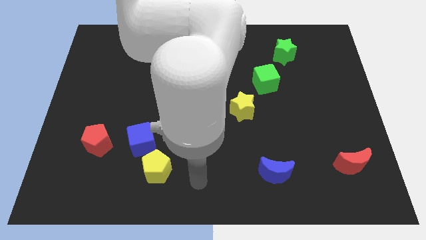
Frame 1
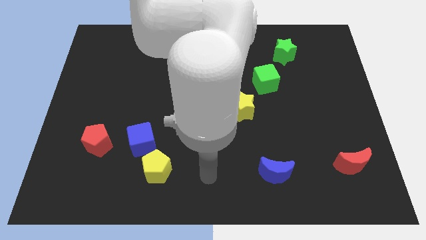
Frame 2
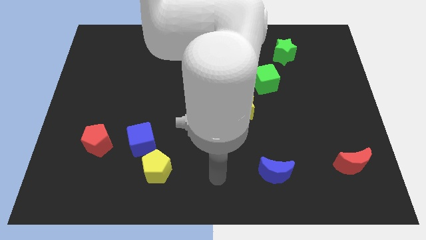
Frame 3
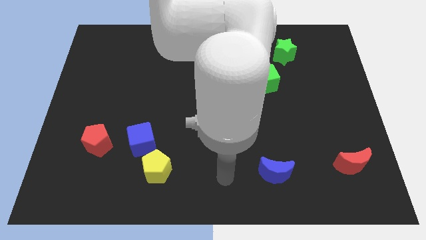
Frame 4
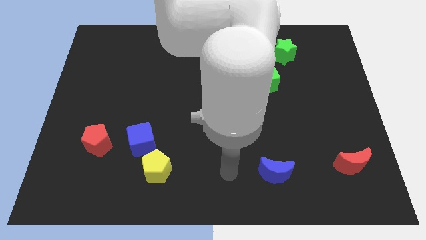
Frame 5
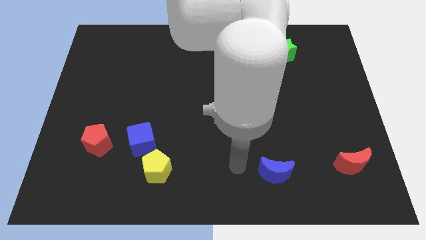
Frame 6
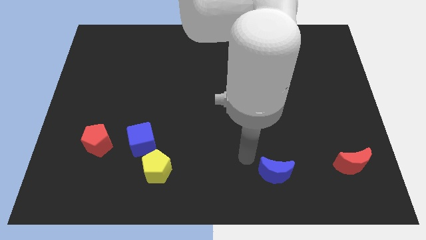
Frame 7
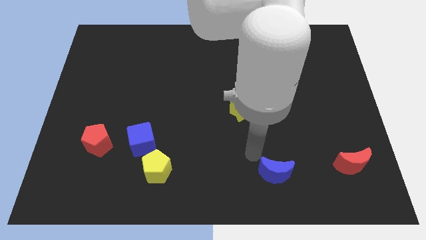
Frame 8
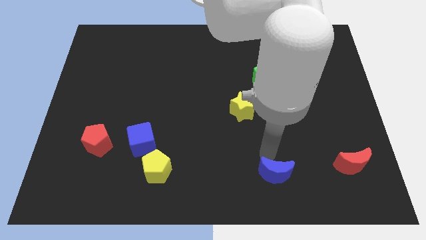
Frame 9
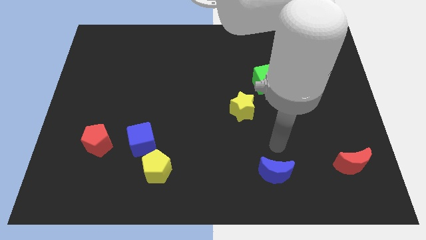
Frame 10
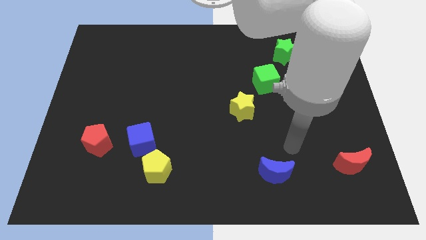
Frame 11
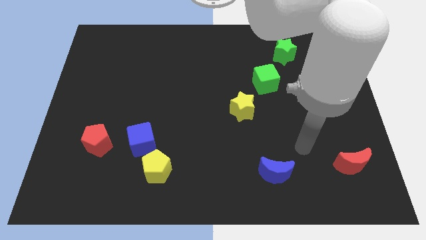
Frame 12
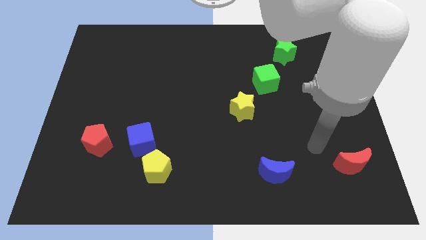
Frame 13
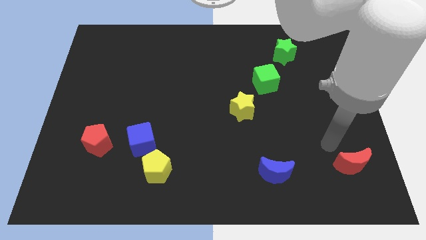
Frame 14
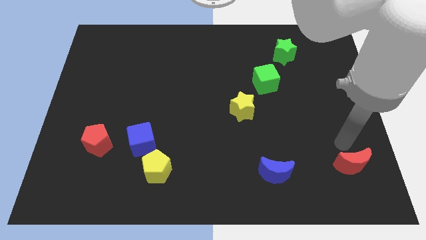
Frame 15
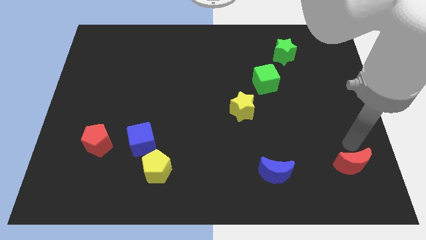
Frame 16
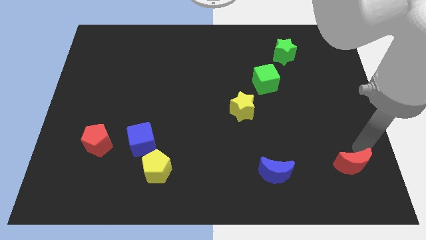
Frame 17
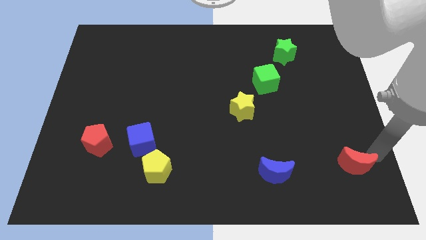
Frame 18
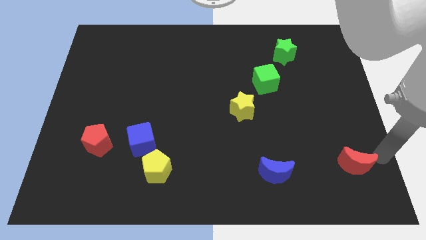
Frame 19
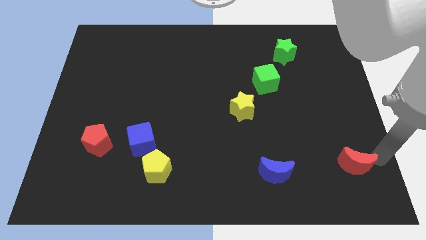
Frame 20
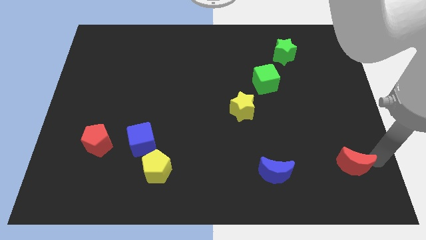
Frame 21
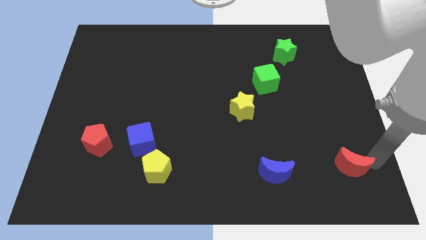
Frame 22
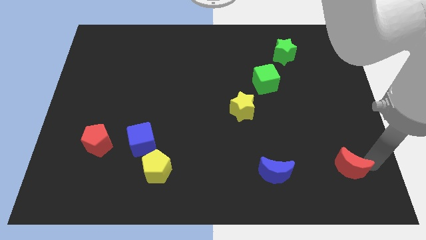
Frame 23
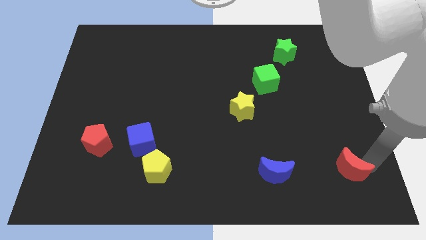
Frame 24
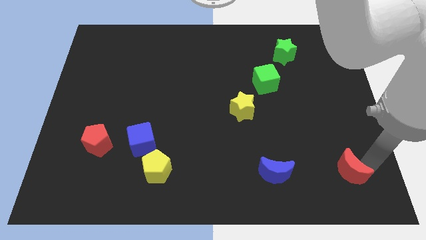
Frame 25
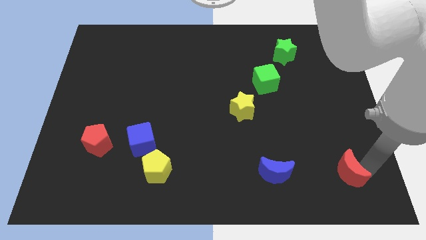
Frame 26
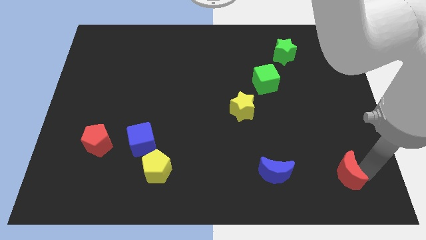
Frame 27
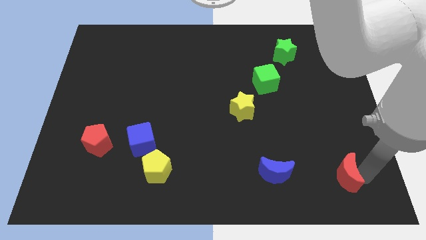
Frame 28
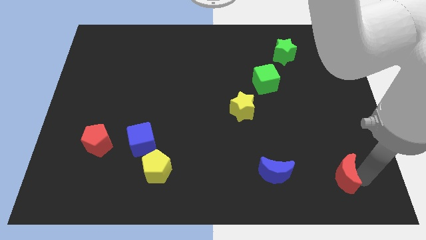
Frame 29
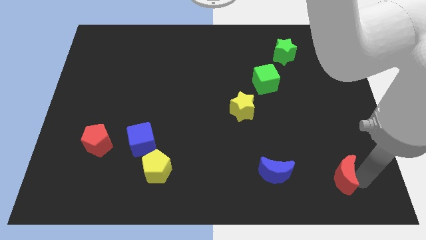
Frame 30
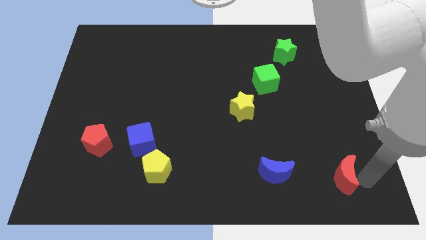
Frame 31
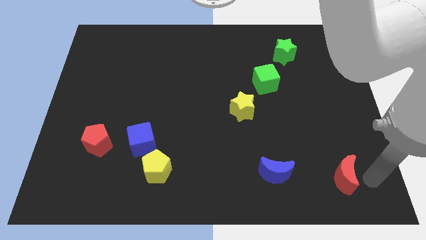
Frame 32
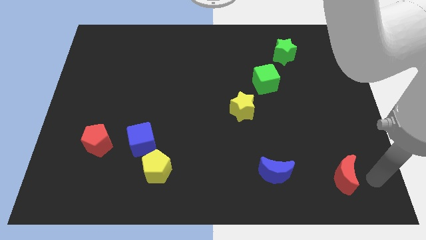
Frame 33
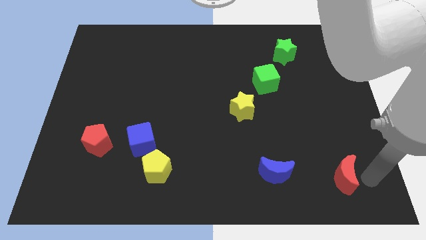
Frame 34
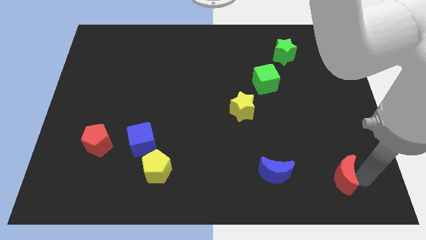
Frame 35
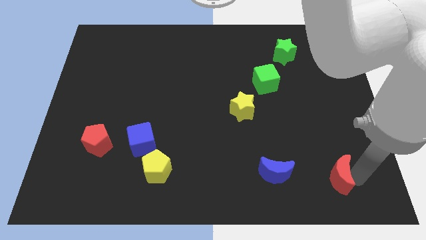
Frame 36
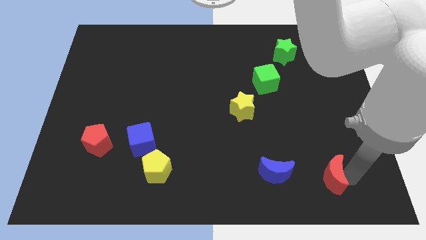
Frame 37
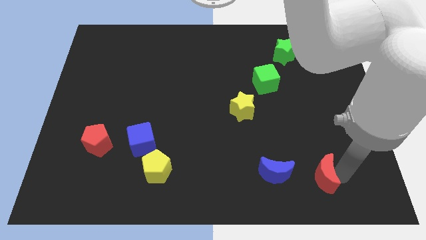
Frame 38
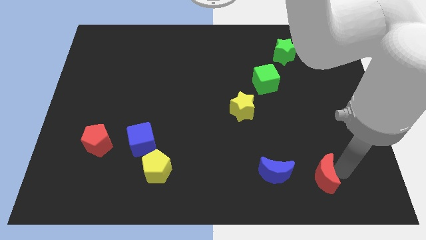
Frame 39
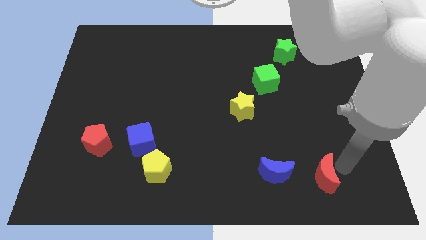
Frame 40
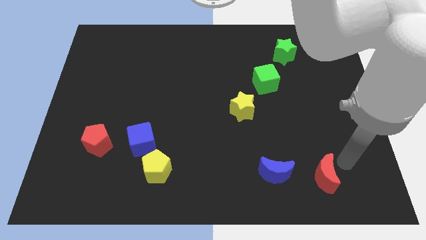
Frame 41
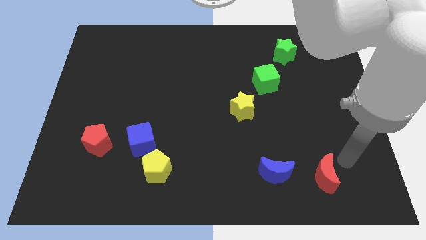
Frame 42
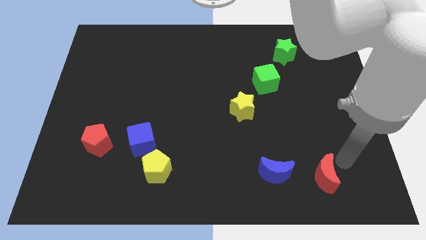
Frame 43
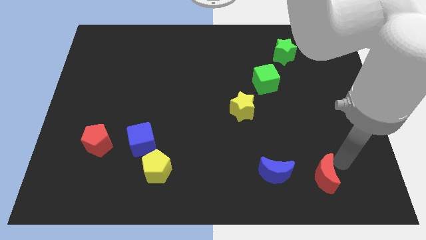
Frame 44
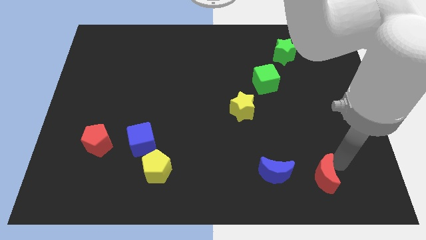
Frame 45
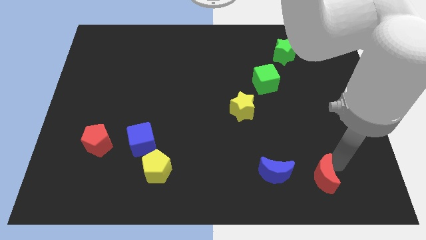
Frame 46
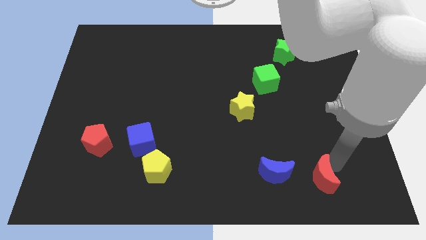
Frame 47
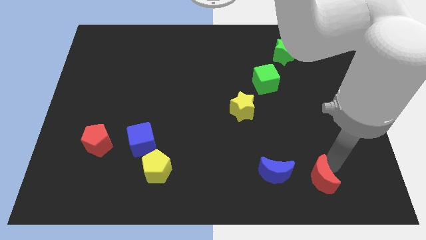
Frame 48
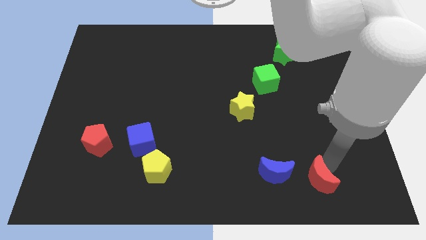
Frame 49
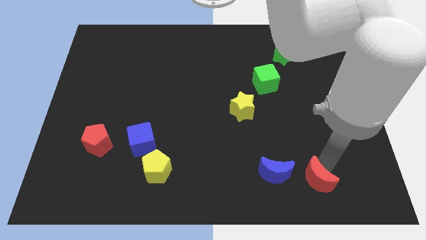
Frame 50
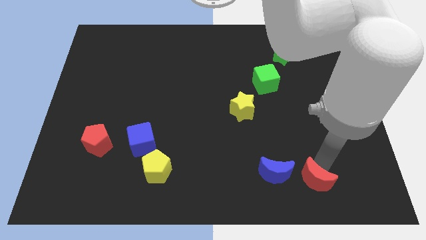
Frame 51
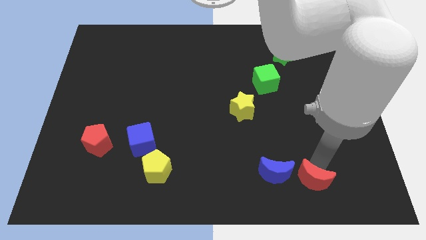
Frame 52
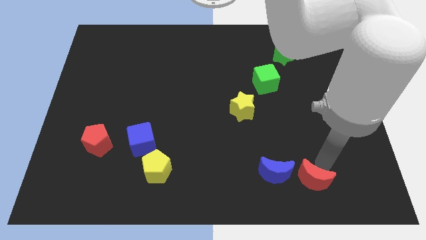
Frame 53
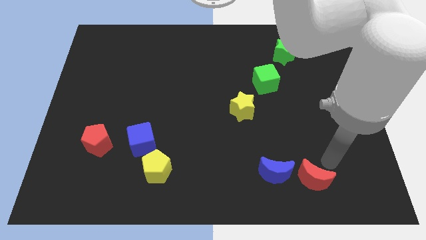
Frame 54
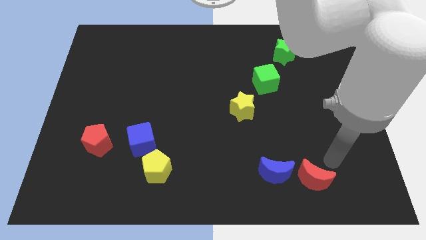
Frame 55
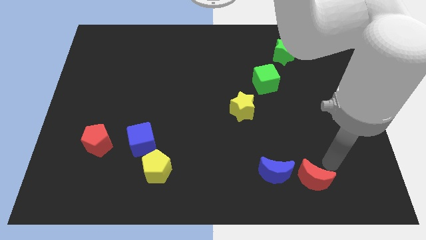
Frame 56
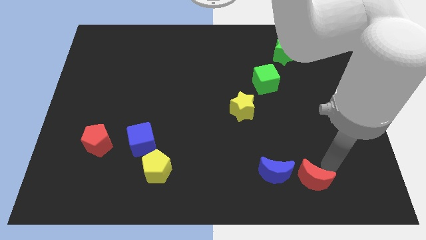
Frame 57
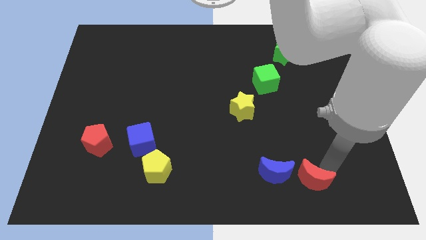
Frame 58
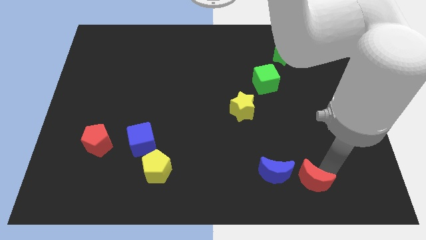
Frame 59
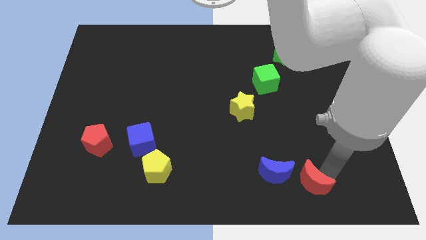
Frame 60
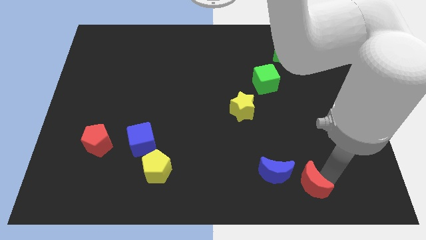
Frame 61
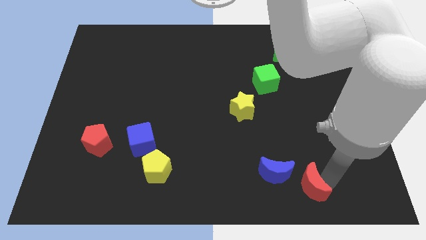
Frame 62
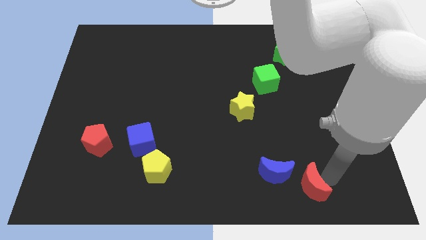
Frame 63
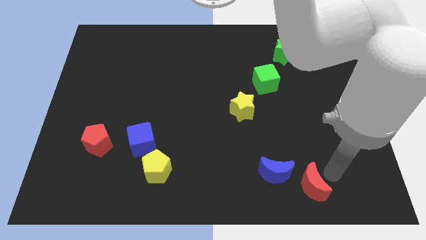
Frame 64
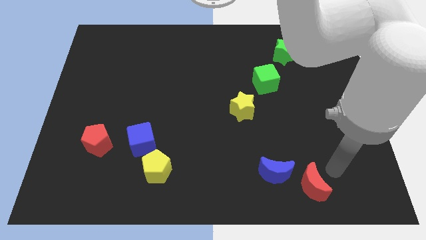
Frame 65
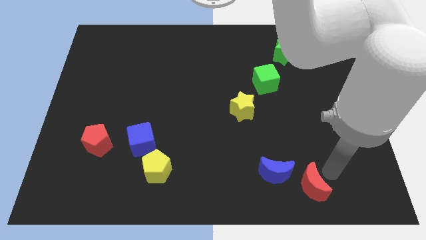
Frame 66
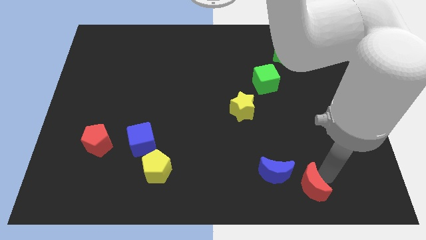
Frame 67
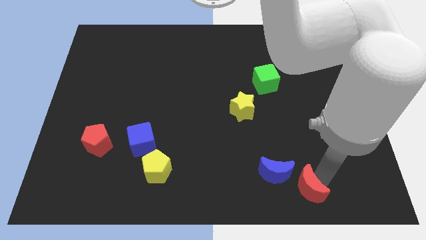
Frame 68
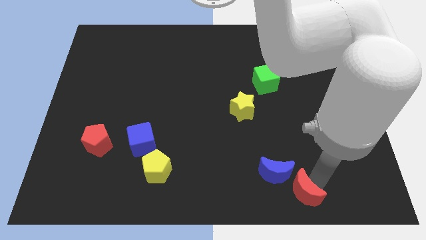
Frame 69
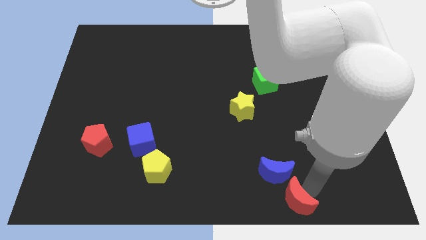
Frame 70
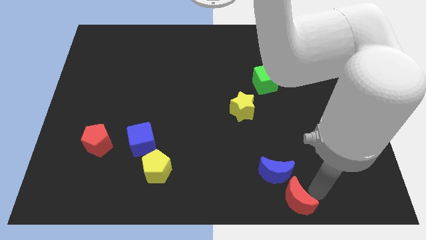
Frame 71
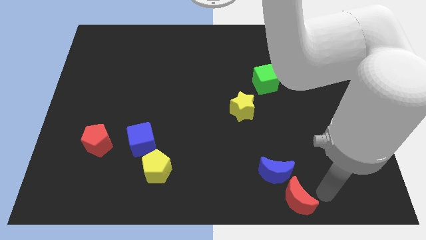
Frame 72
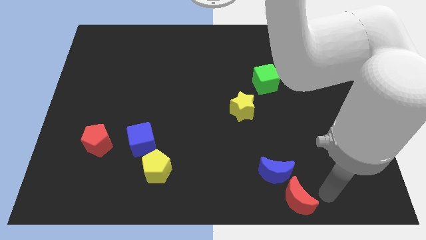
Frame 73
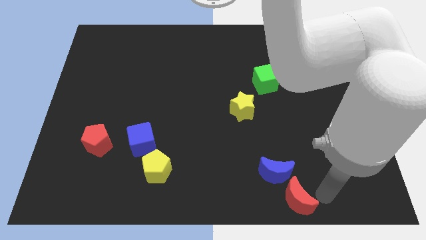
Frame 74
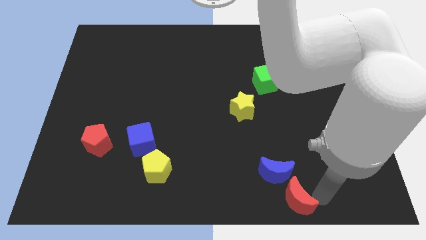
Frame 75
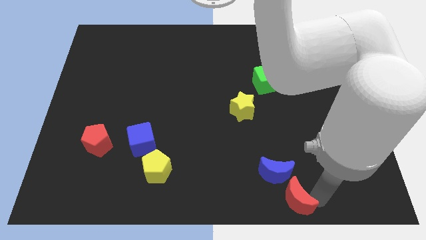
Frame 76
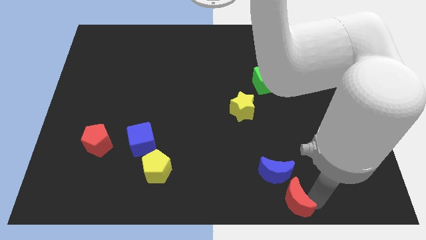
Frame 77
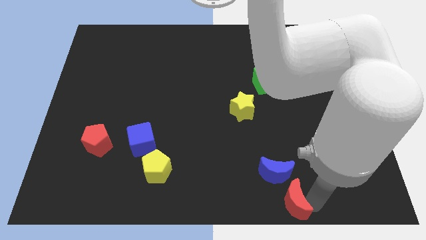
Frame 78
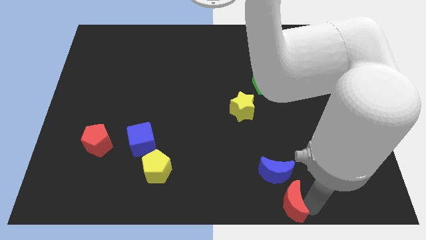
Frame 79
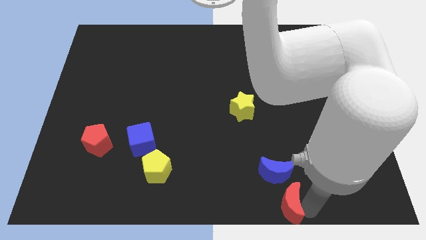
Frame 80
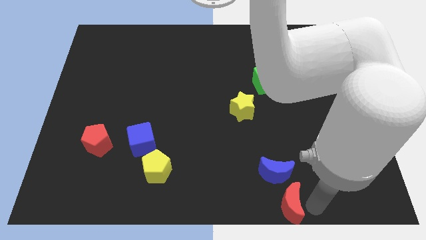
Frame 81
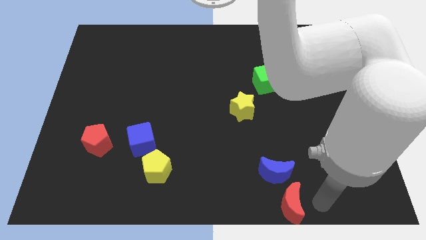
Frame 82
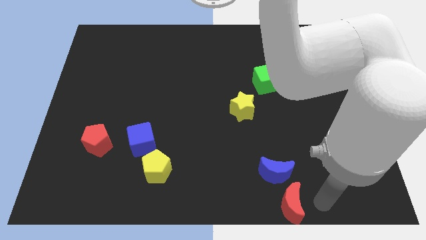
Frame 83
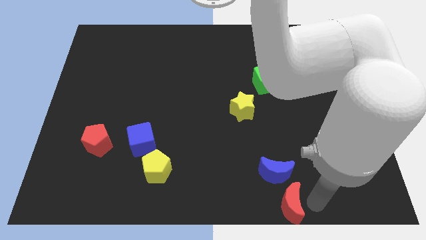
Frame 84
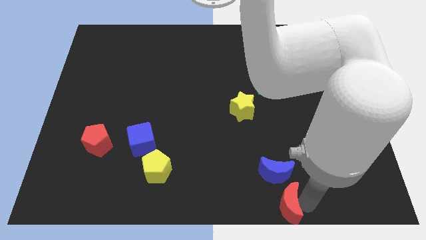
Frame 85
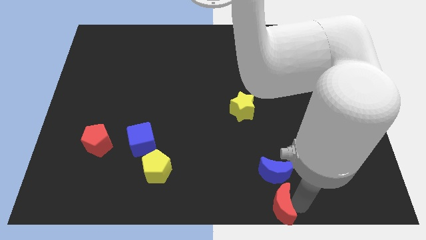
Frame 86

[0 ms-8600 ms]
push the red moon to the bottom
